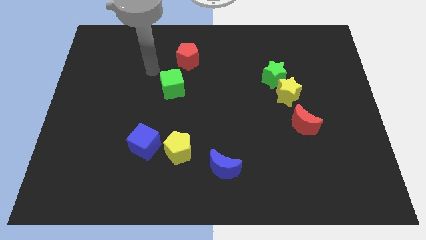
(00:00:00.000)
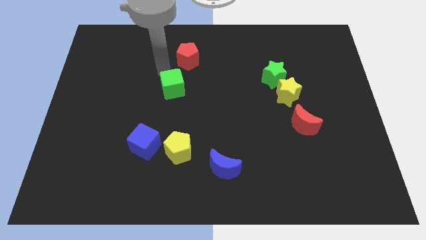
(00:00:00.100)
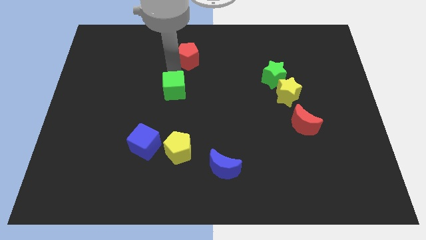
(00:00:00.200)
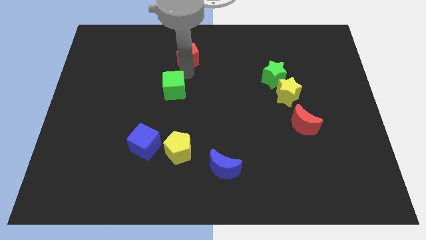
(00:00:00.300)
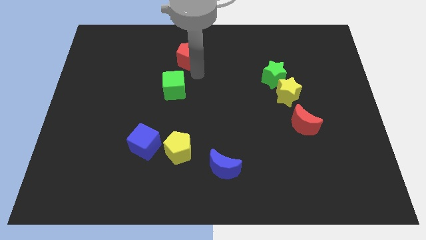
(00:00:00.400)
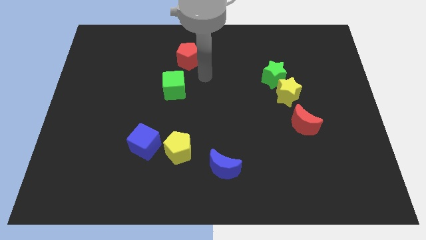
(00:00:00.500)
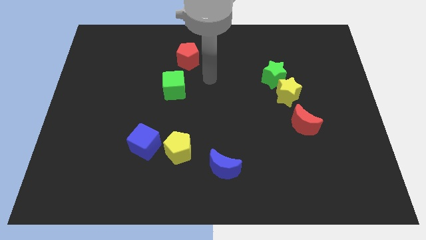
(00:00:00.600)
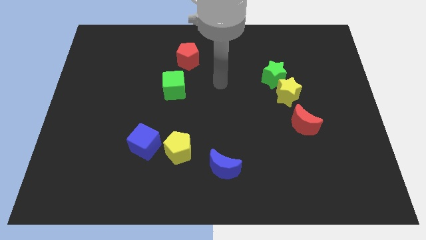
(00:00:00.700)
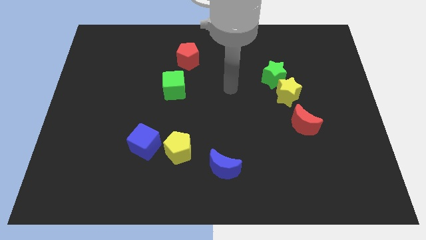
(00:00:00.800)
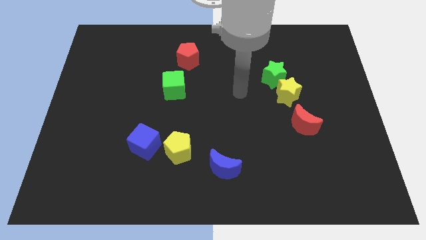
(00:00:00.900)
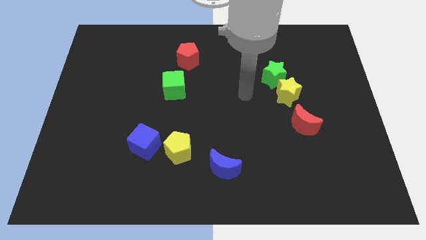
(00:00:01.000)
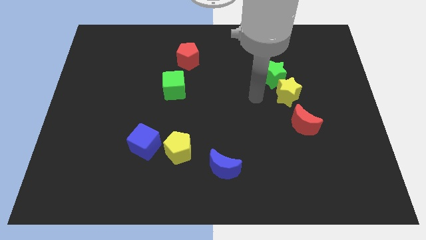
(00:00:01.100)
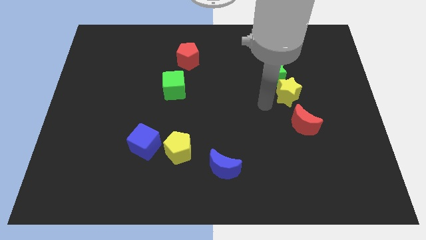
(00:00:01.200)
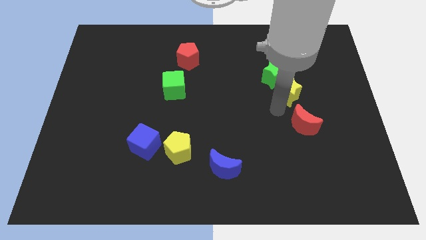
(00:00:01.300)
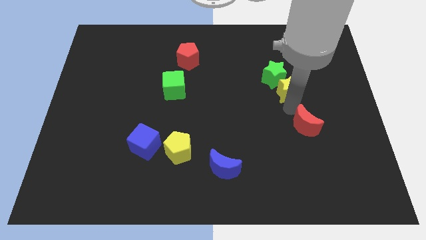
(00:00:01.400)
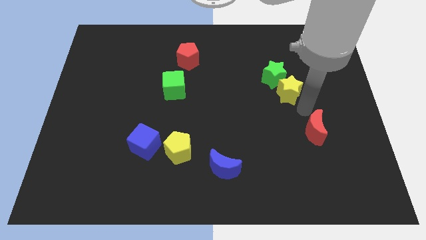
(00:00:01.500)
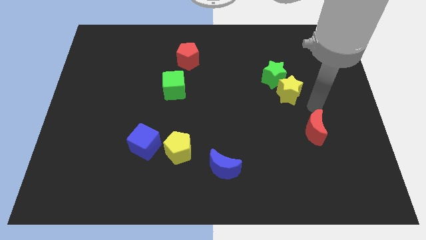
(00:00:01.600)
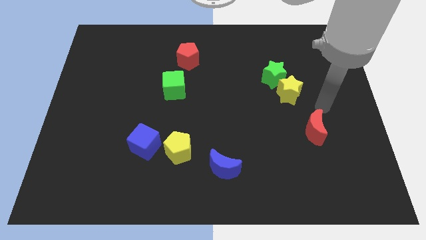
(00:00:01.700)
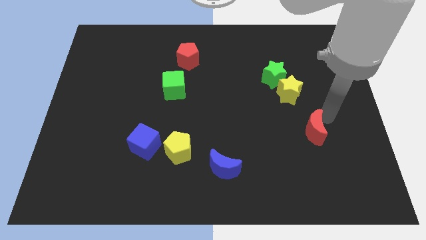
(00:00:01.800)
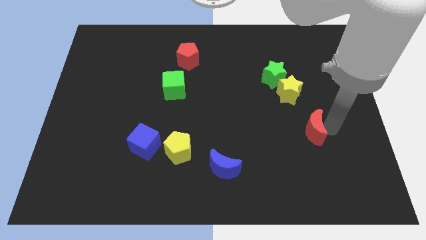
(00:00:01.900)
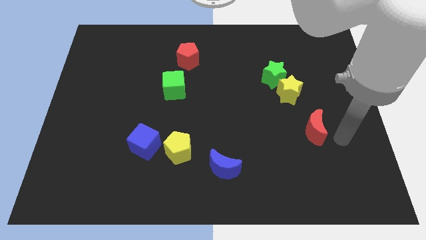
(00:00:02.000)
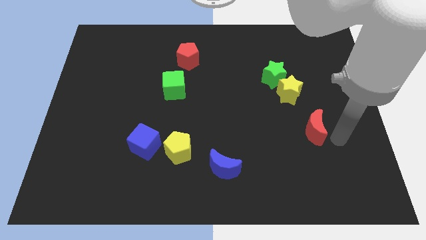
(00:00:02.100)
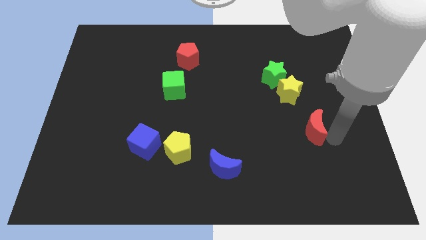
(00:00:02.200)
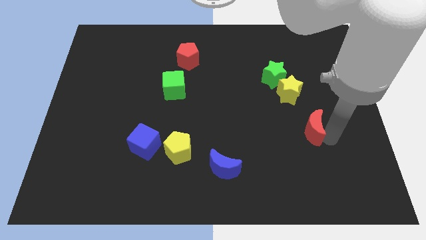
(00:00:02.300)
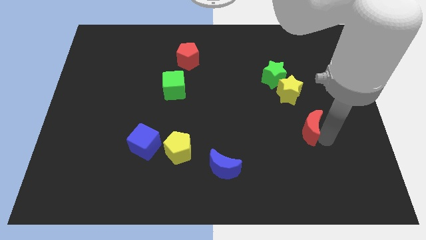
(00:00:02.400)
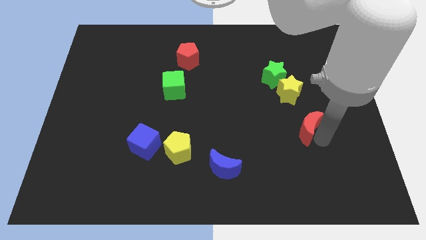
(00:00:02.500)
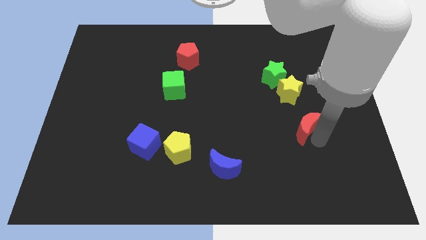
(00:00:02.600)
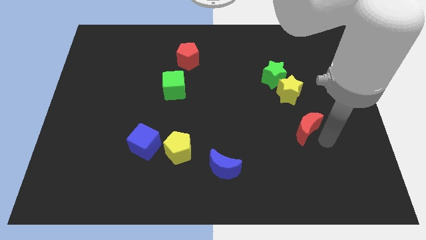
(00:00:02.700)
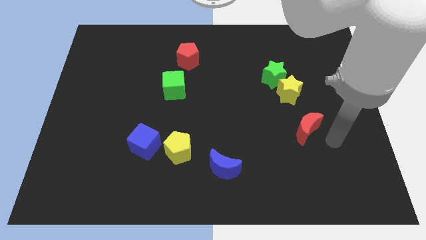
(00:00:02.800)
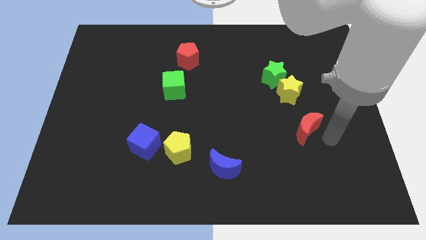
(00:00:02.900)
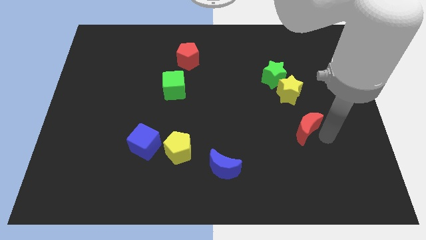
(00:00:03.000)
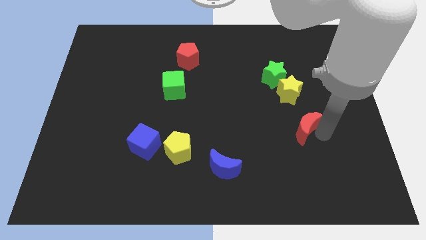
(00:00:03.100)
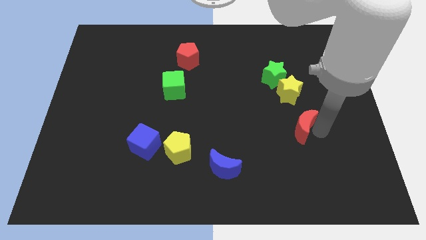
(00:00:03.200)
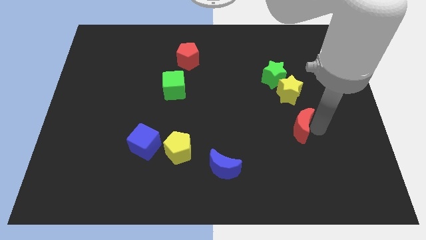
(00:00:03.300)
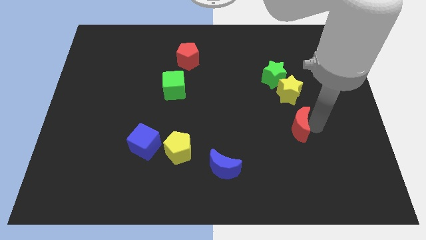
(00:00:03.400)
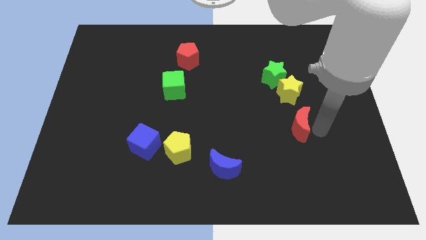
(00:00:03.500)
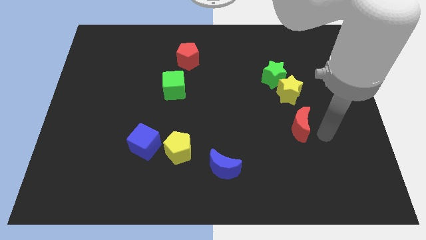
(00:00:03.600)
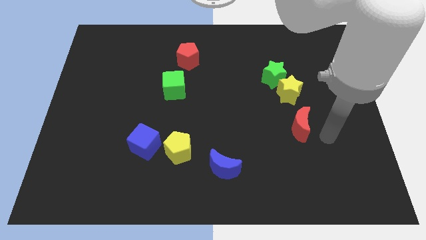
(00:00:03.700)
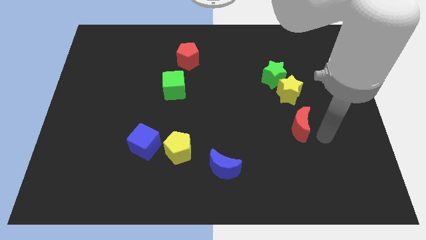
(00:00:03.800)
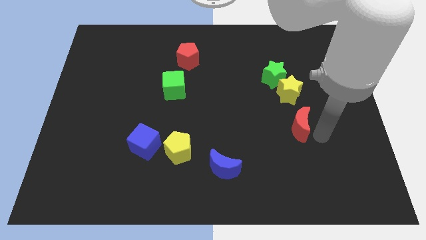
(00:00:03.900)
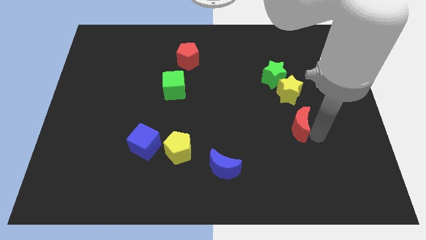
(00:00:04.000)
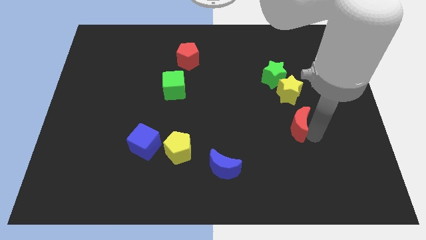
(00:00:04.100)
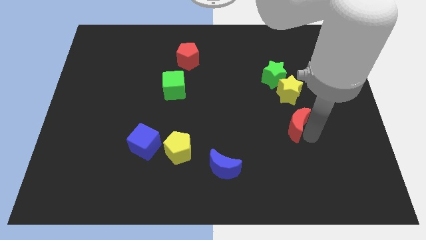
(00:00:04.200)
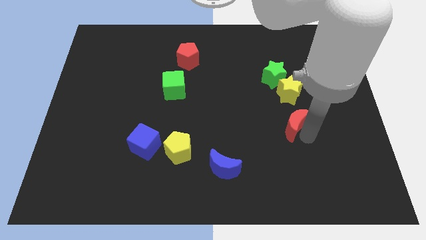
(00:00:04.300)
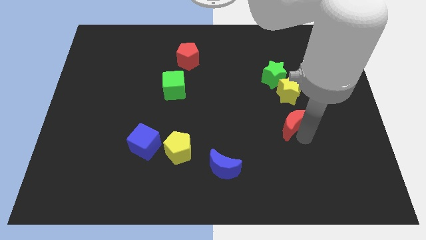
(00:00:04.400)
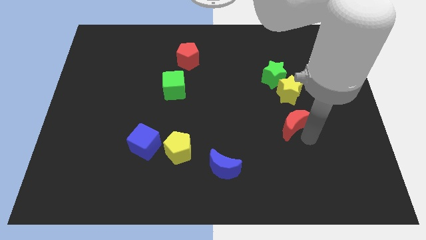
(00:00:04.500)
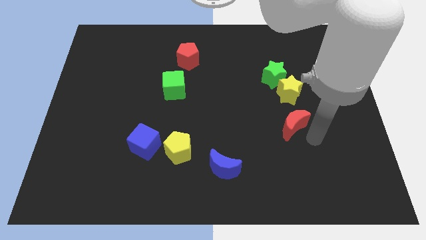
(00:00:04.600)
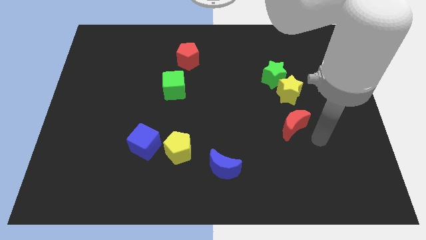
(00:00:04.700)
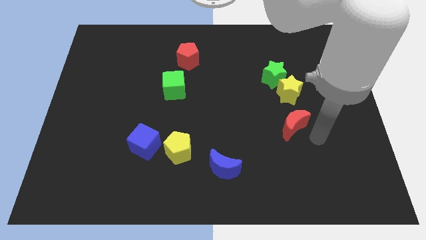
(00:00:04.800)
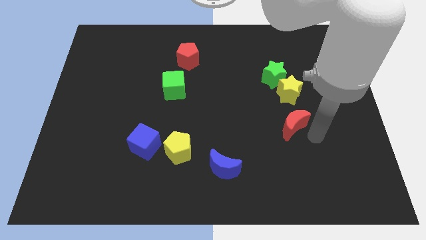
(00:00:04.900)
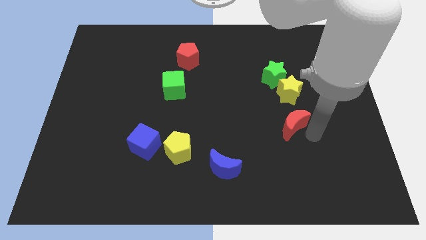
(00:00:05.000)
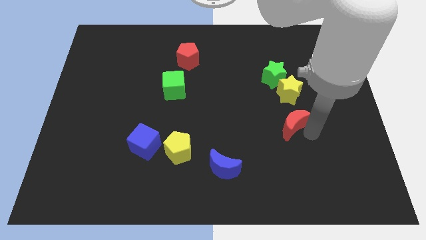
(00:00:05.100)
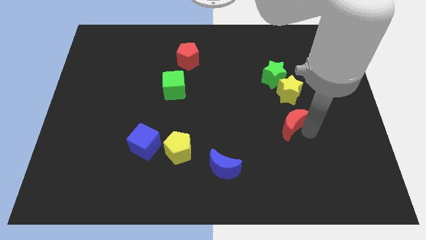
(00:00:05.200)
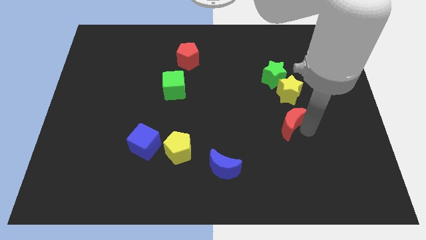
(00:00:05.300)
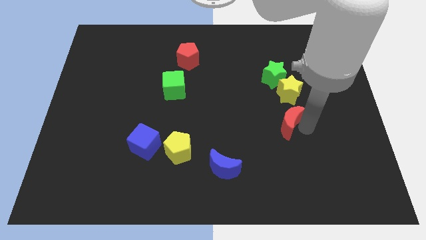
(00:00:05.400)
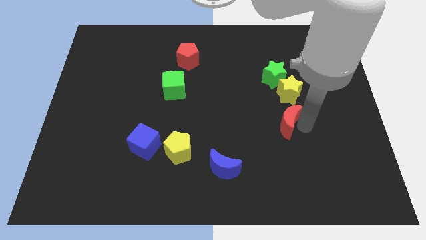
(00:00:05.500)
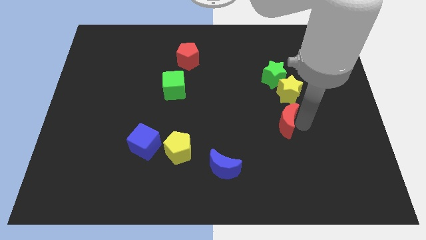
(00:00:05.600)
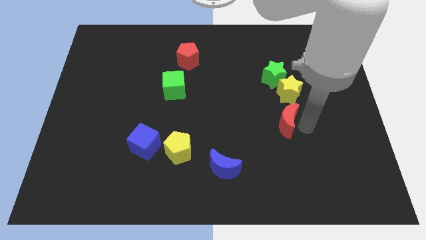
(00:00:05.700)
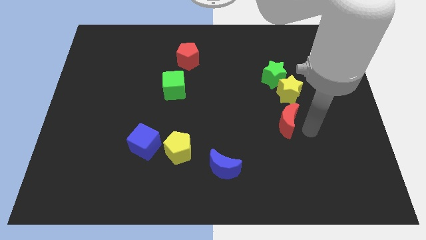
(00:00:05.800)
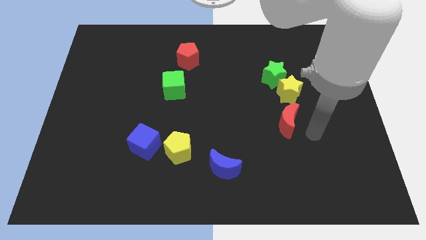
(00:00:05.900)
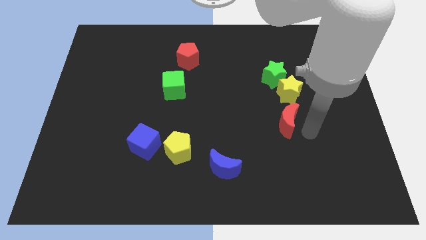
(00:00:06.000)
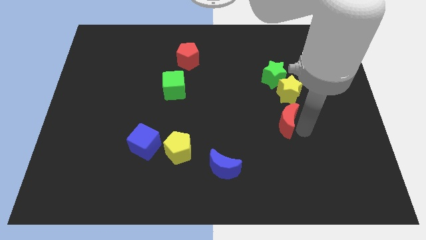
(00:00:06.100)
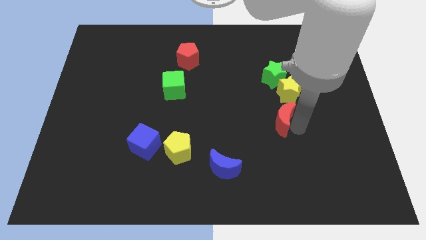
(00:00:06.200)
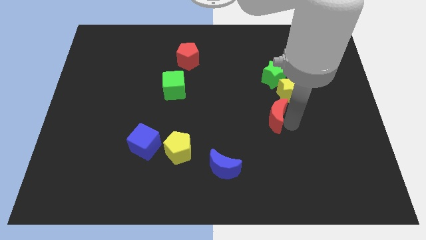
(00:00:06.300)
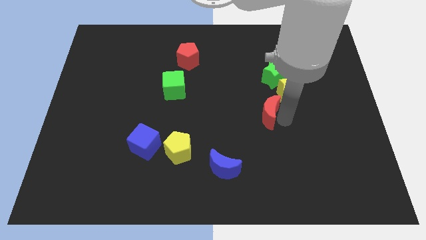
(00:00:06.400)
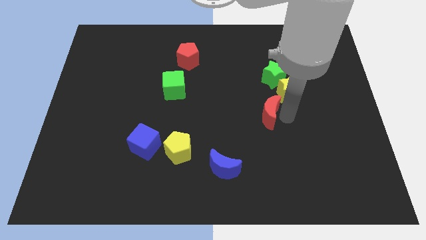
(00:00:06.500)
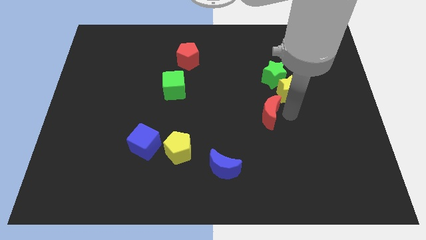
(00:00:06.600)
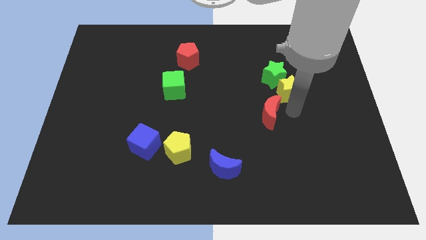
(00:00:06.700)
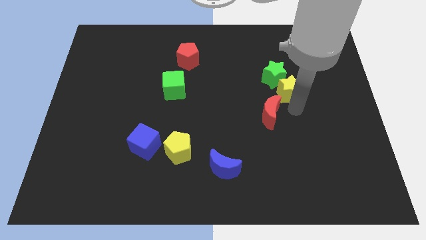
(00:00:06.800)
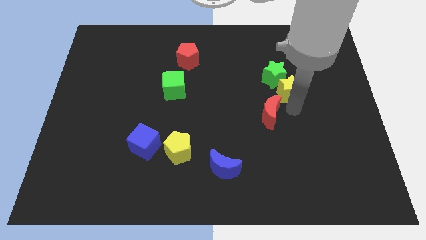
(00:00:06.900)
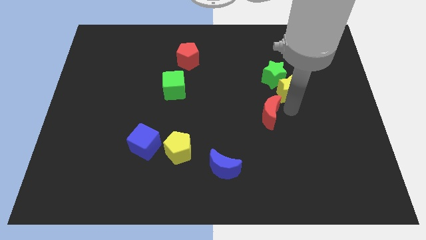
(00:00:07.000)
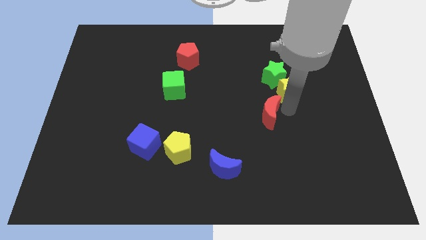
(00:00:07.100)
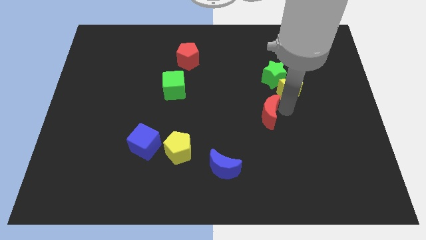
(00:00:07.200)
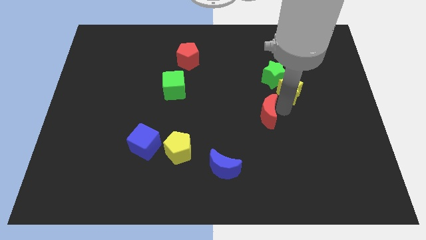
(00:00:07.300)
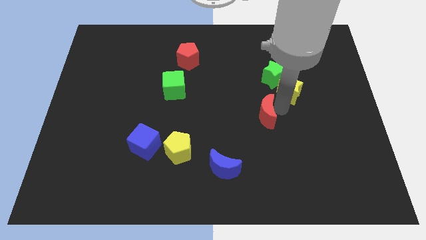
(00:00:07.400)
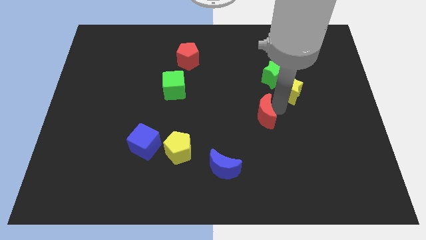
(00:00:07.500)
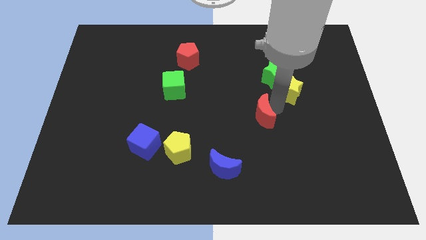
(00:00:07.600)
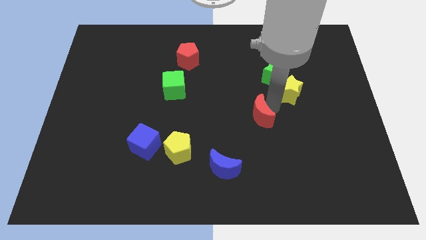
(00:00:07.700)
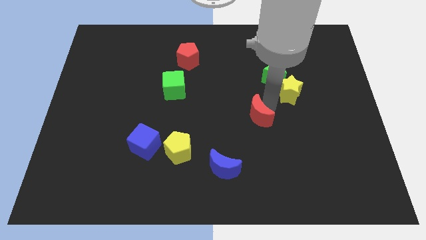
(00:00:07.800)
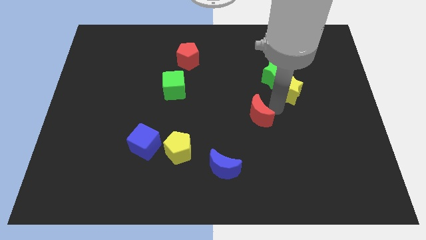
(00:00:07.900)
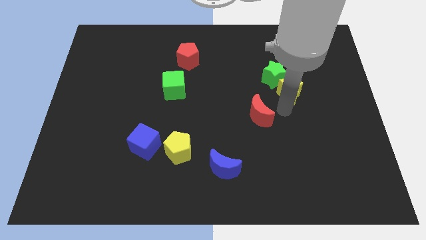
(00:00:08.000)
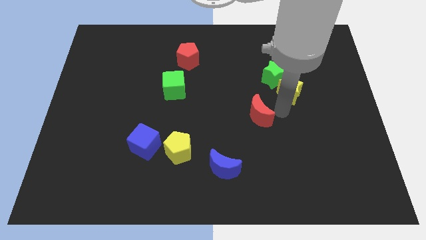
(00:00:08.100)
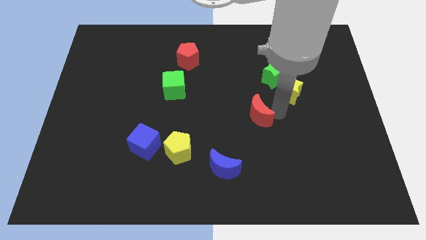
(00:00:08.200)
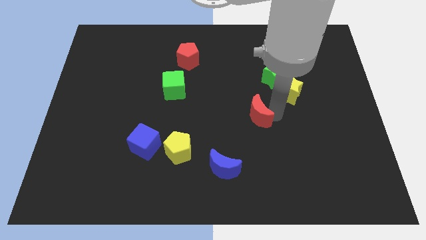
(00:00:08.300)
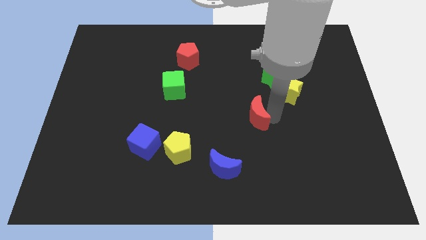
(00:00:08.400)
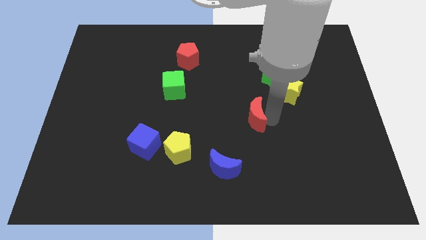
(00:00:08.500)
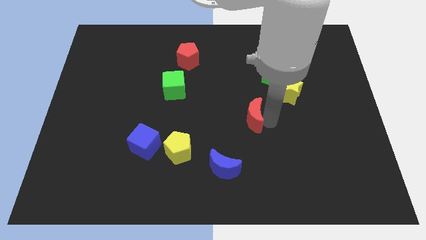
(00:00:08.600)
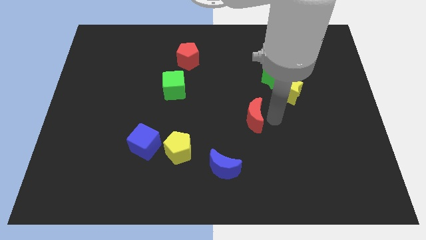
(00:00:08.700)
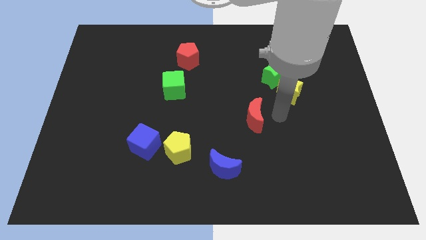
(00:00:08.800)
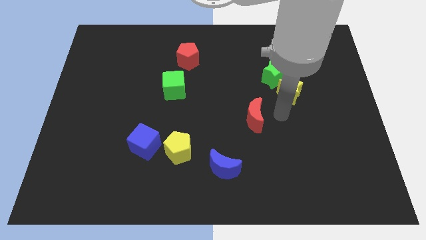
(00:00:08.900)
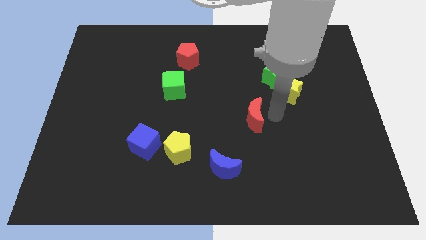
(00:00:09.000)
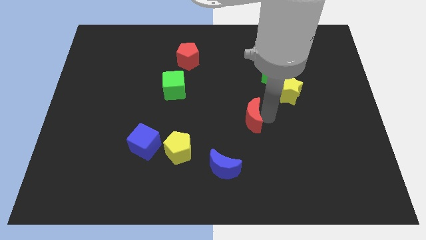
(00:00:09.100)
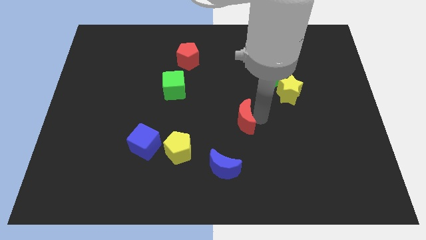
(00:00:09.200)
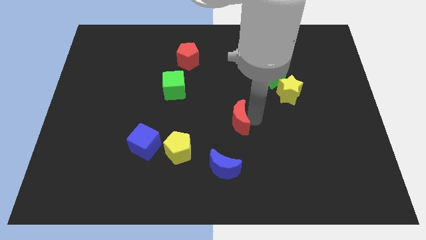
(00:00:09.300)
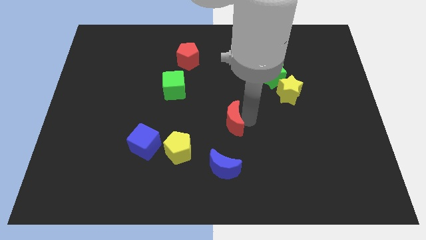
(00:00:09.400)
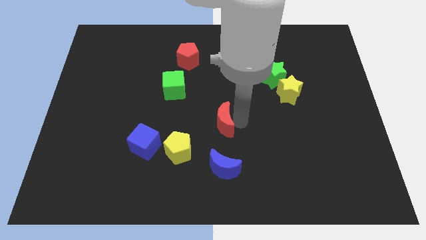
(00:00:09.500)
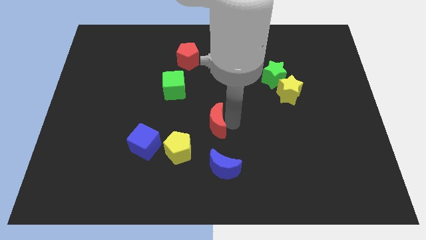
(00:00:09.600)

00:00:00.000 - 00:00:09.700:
push the red moon to the left
